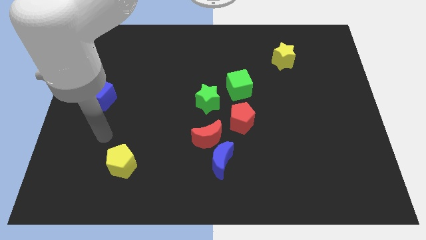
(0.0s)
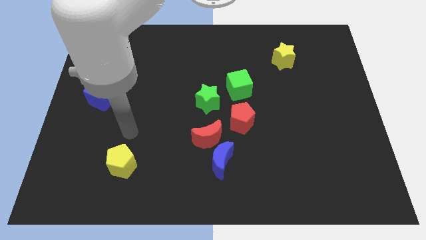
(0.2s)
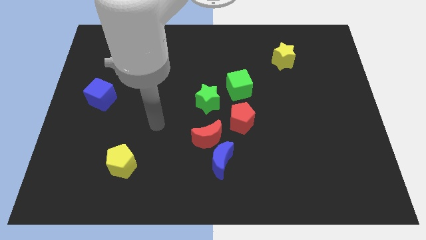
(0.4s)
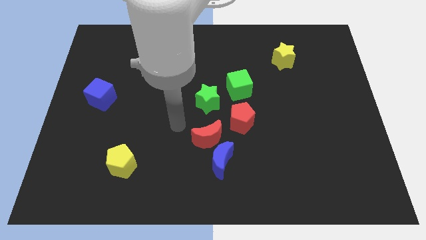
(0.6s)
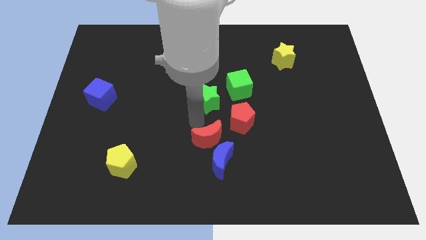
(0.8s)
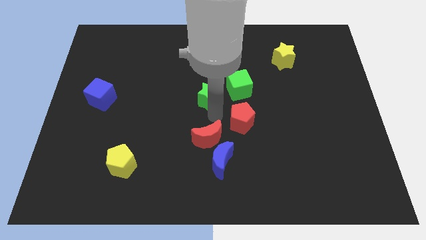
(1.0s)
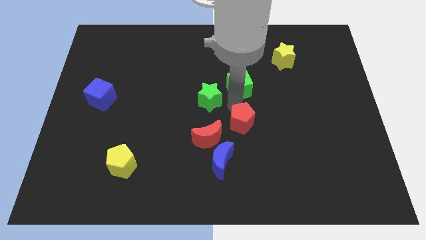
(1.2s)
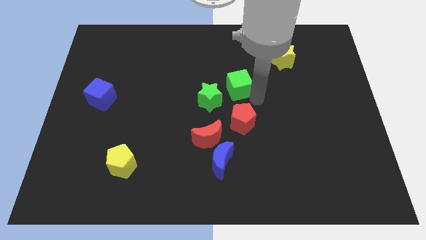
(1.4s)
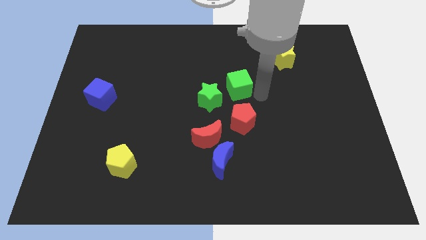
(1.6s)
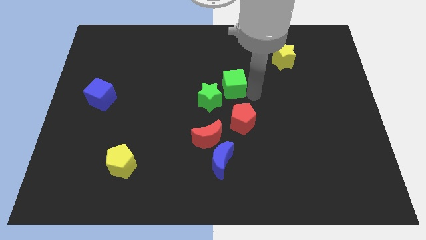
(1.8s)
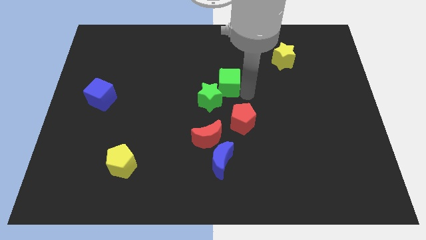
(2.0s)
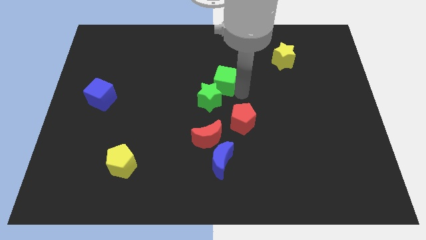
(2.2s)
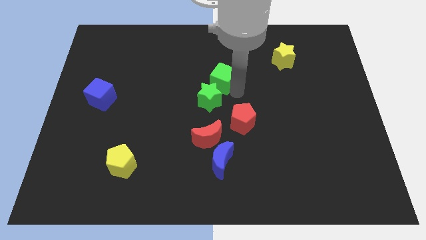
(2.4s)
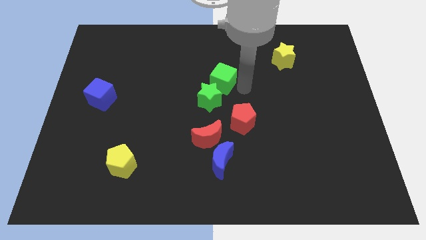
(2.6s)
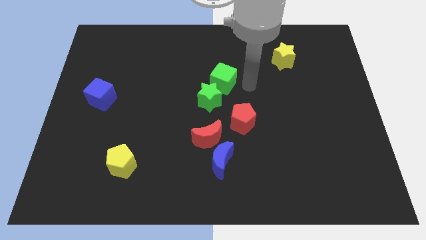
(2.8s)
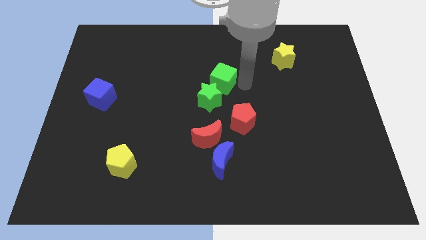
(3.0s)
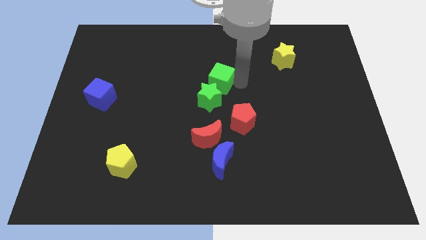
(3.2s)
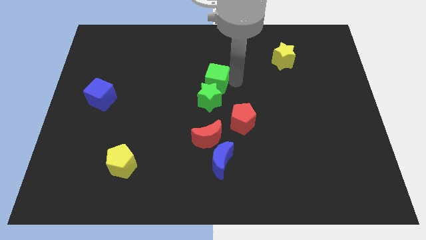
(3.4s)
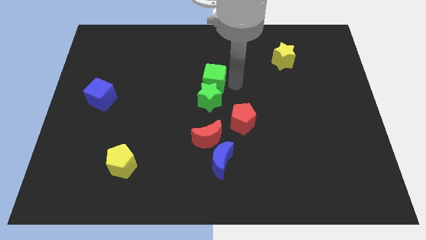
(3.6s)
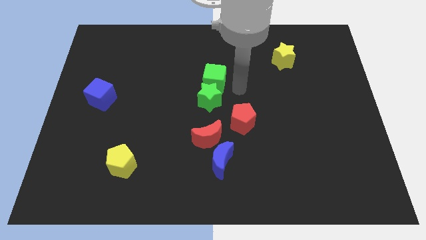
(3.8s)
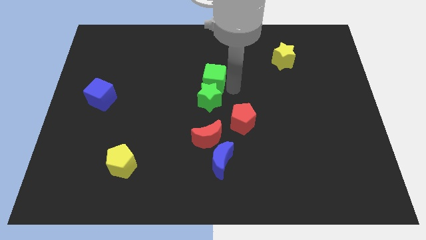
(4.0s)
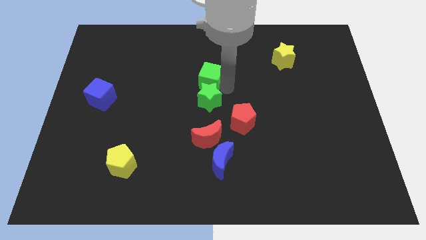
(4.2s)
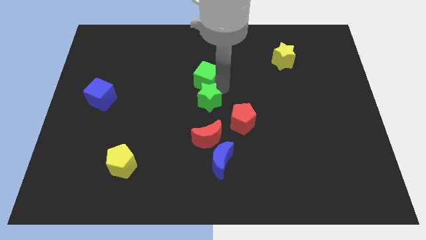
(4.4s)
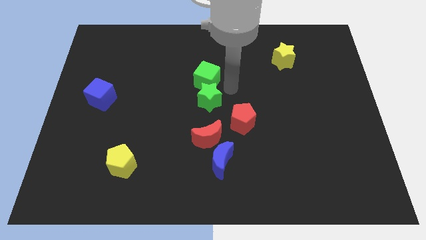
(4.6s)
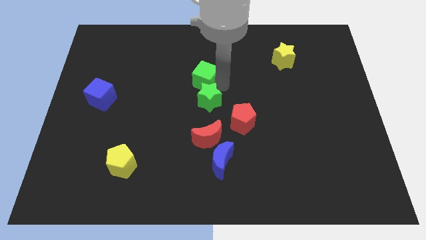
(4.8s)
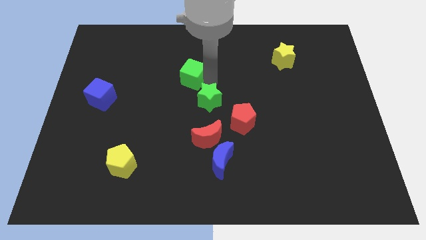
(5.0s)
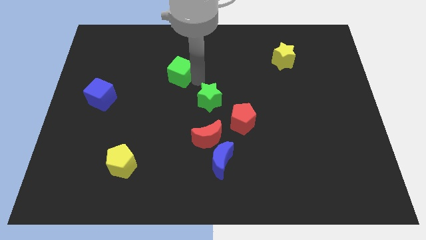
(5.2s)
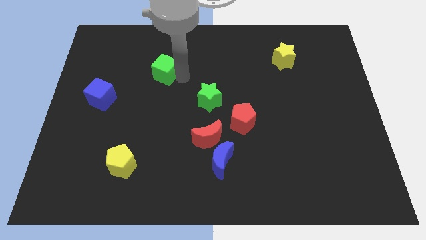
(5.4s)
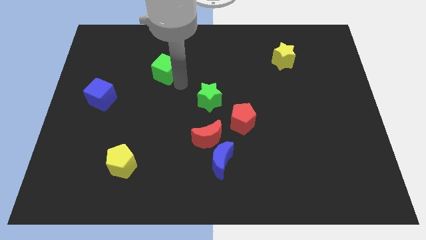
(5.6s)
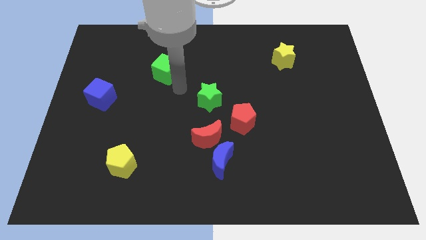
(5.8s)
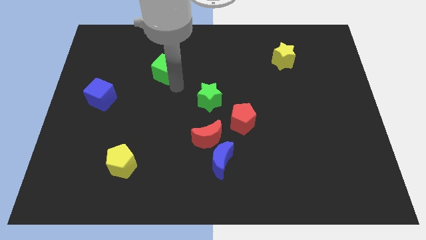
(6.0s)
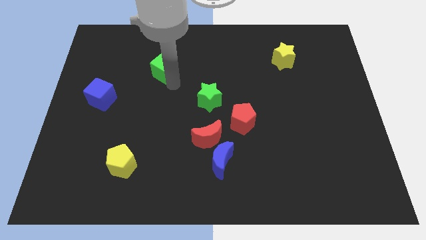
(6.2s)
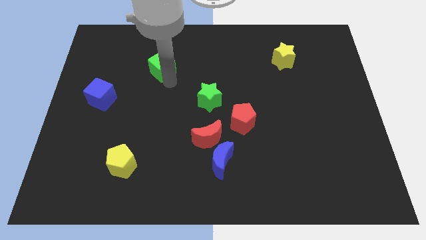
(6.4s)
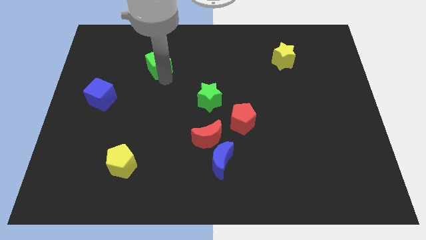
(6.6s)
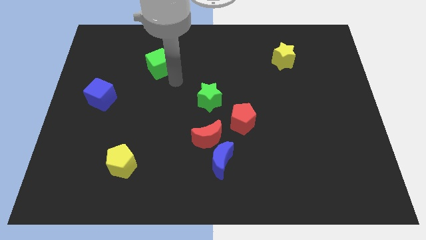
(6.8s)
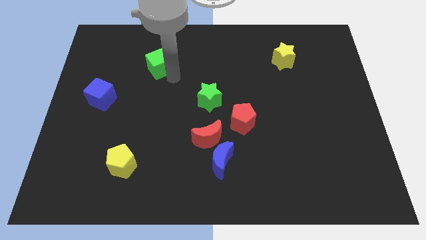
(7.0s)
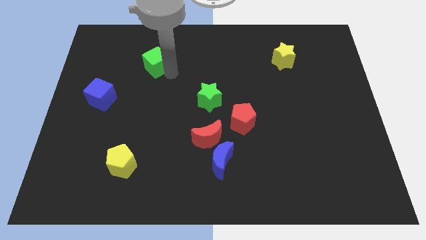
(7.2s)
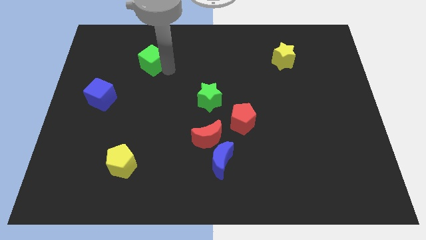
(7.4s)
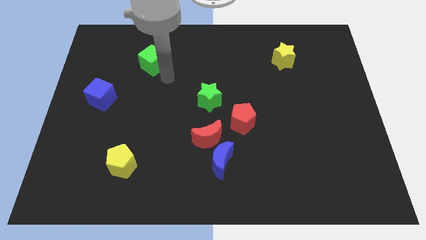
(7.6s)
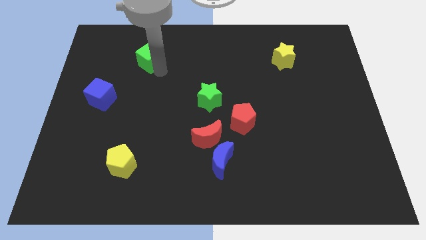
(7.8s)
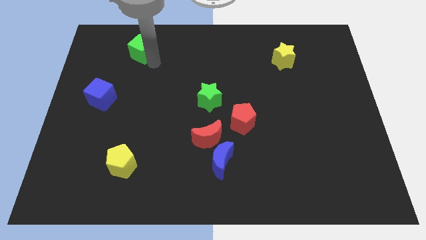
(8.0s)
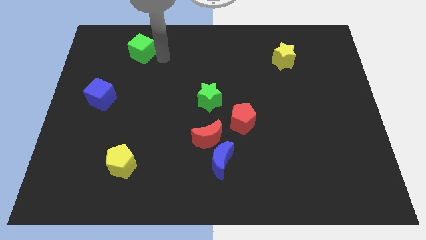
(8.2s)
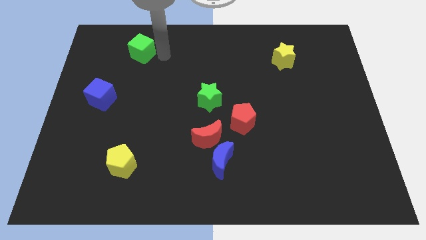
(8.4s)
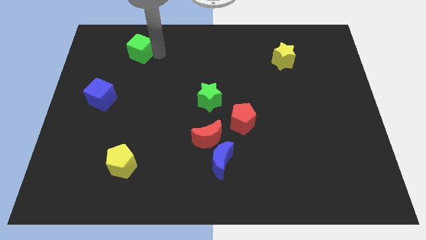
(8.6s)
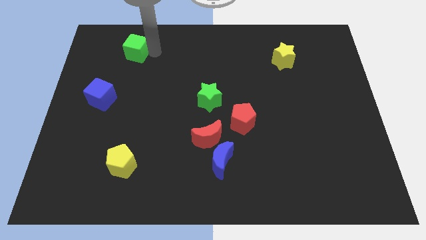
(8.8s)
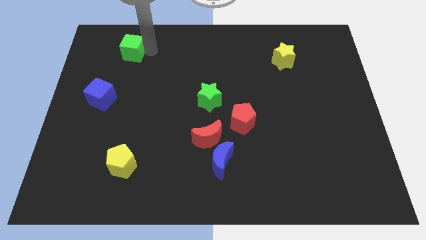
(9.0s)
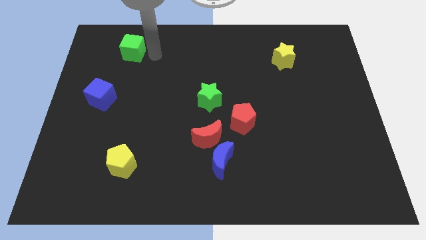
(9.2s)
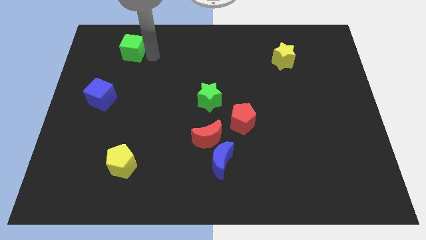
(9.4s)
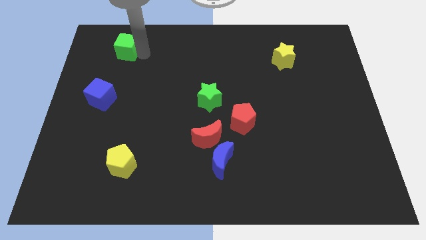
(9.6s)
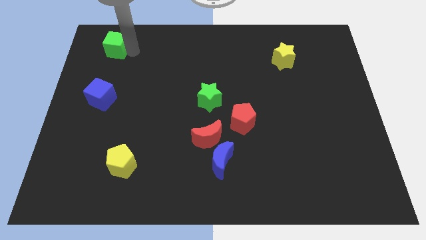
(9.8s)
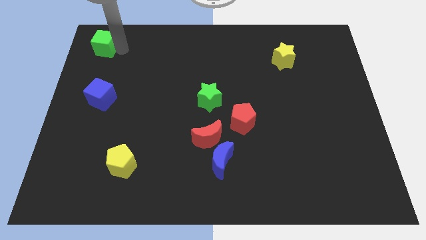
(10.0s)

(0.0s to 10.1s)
slide the green cube to the top left

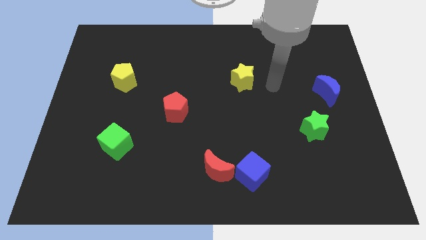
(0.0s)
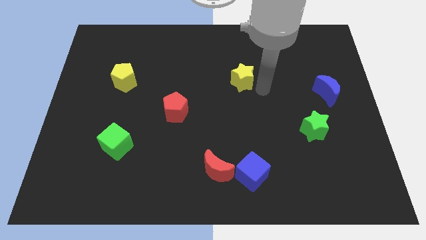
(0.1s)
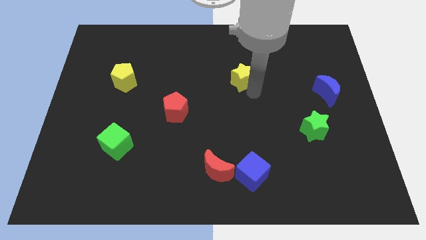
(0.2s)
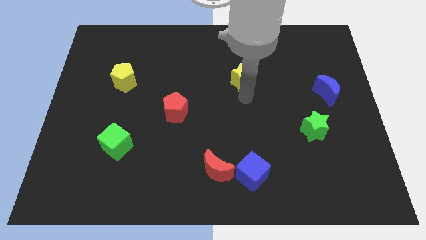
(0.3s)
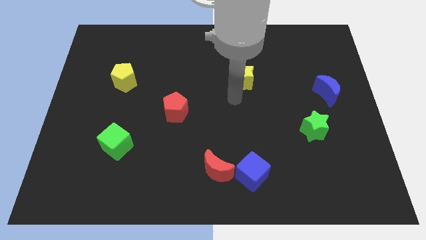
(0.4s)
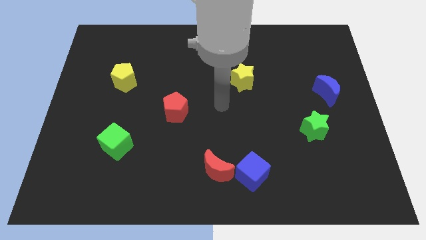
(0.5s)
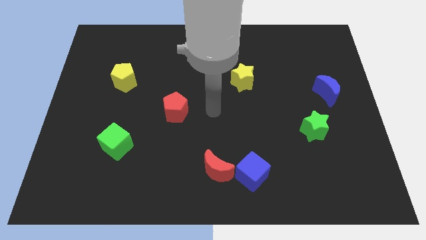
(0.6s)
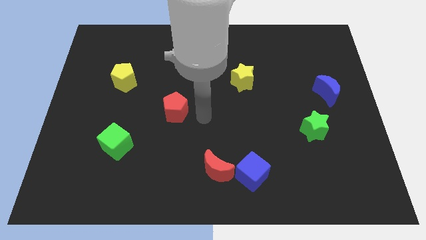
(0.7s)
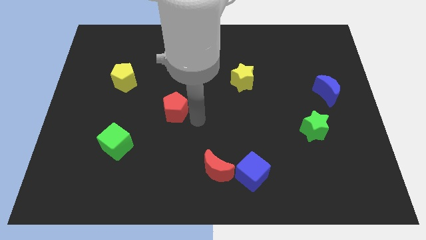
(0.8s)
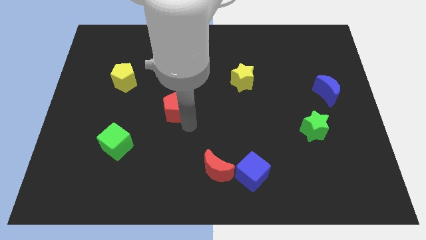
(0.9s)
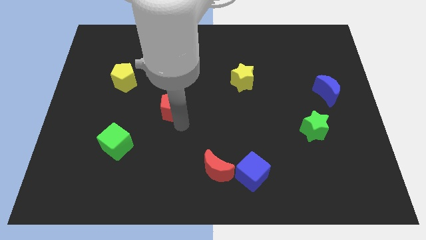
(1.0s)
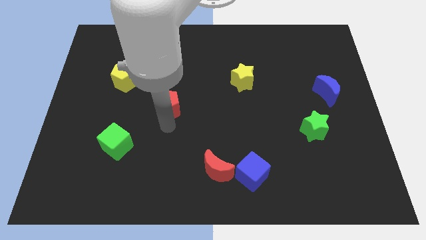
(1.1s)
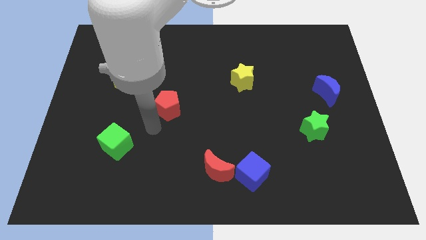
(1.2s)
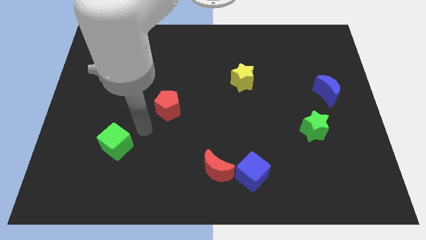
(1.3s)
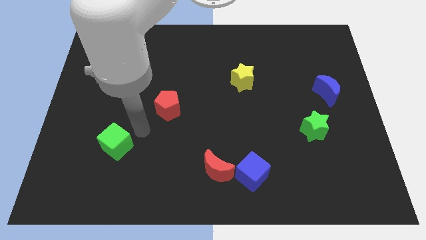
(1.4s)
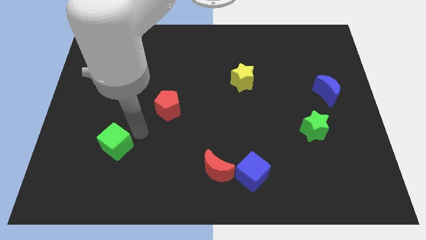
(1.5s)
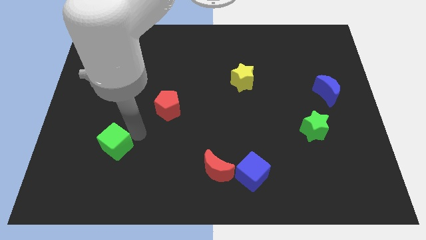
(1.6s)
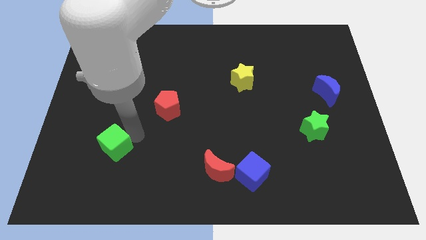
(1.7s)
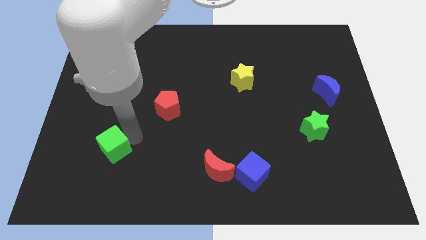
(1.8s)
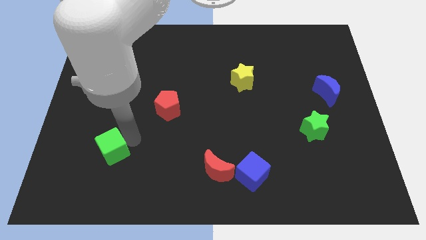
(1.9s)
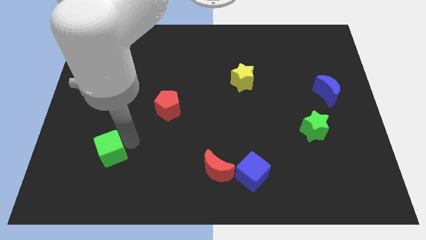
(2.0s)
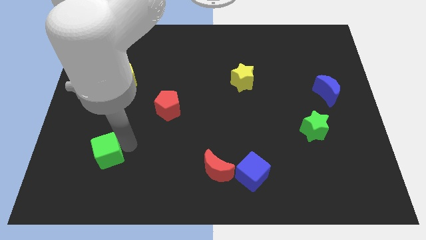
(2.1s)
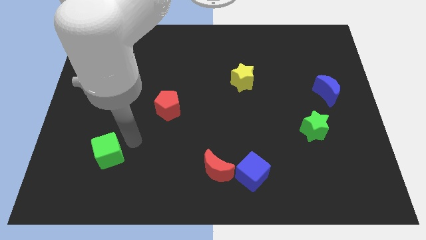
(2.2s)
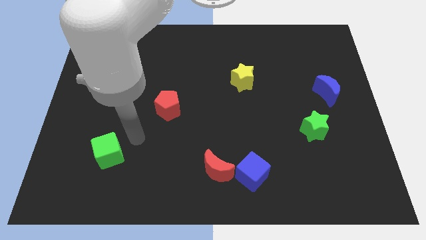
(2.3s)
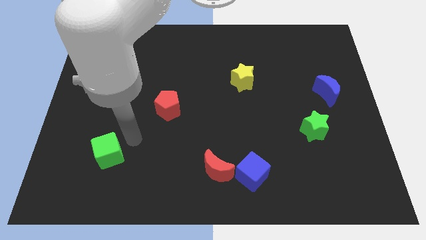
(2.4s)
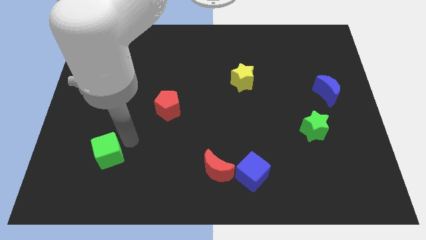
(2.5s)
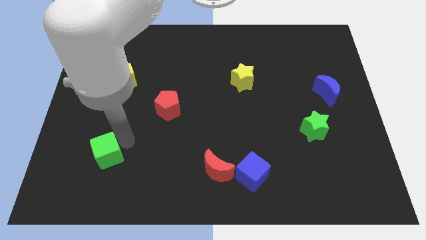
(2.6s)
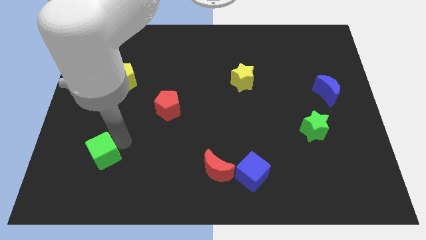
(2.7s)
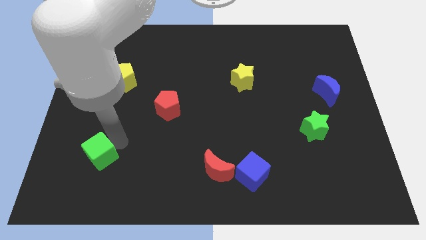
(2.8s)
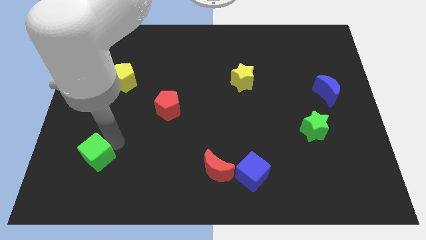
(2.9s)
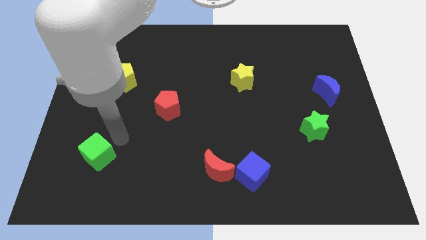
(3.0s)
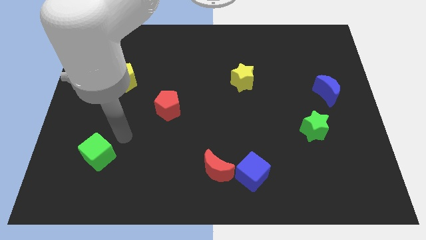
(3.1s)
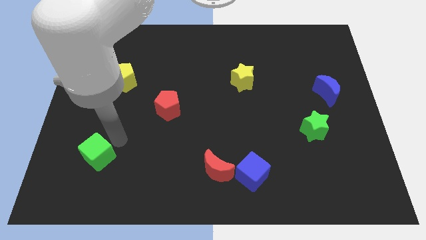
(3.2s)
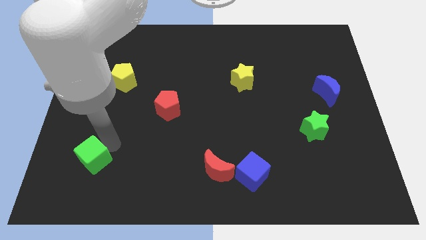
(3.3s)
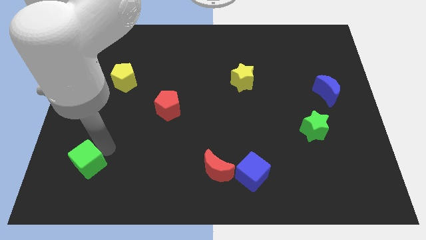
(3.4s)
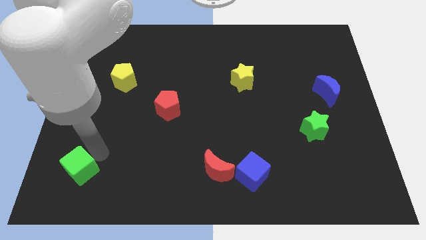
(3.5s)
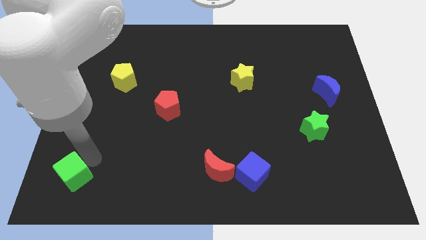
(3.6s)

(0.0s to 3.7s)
push the green cube to the bottom left corner
